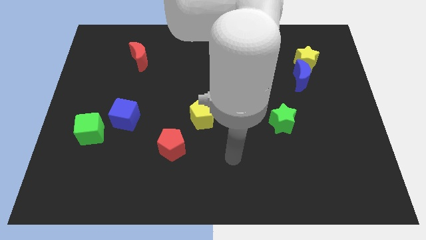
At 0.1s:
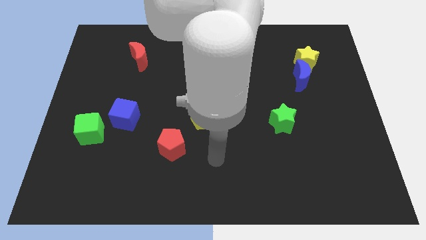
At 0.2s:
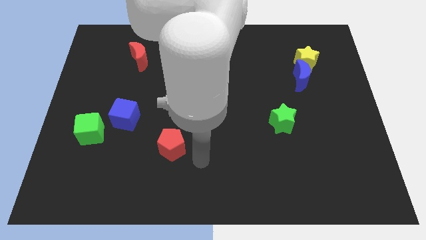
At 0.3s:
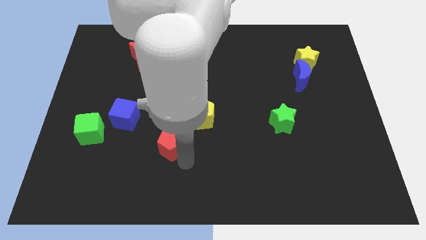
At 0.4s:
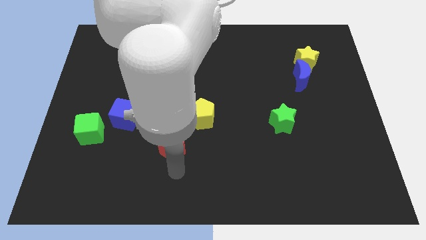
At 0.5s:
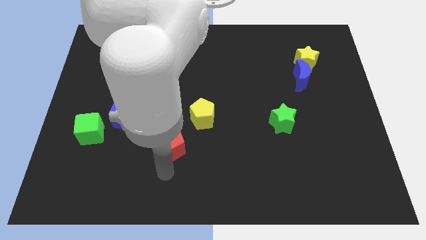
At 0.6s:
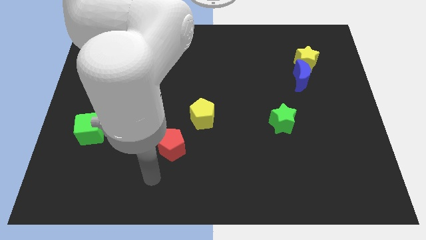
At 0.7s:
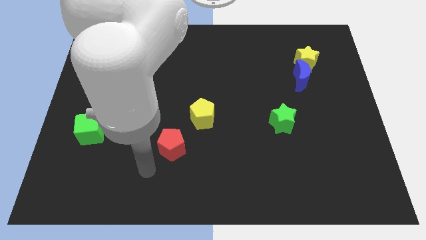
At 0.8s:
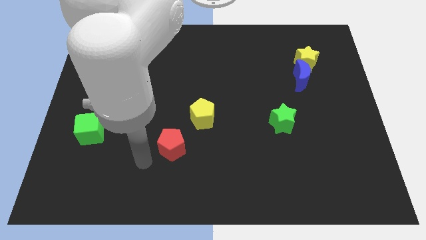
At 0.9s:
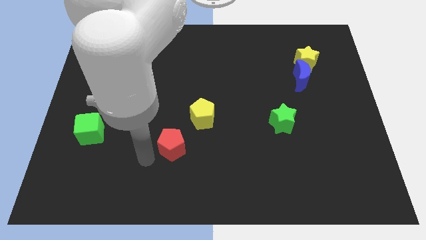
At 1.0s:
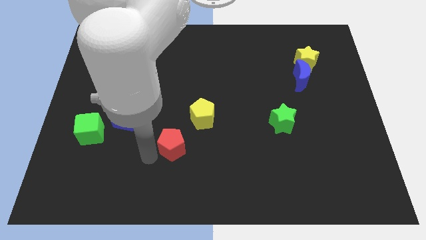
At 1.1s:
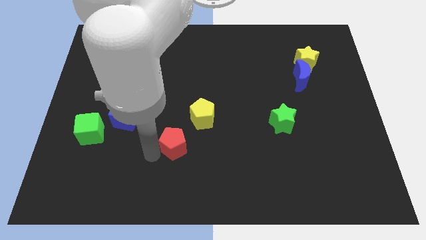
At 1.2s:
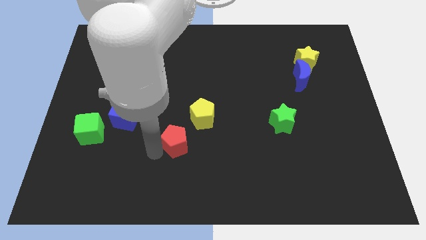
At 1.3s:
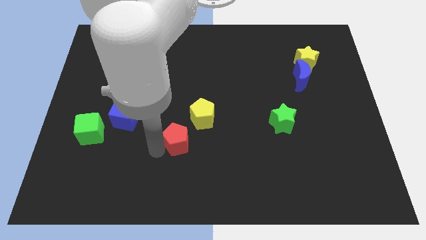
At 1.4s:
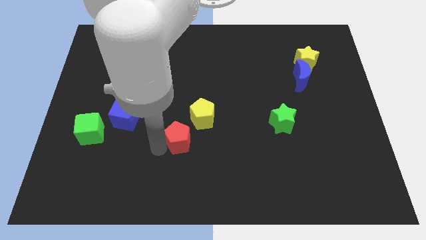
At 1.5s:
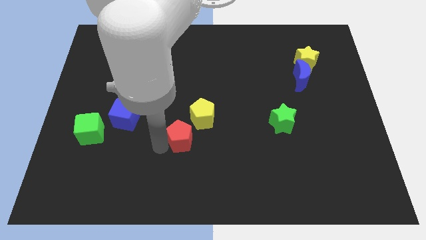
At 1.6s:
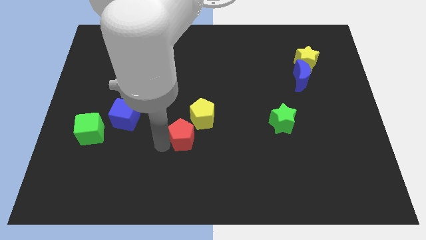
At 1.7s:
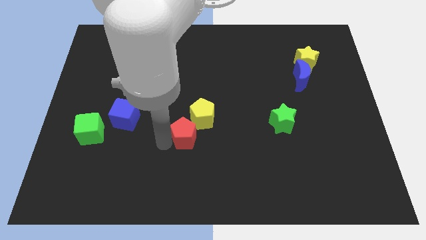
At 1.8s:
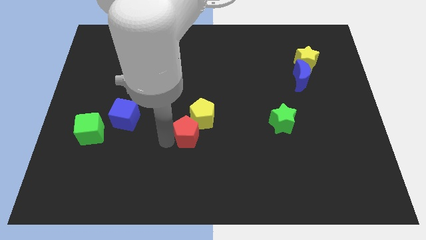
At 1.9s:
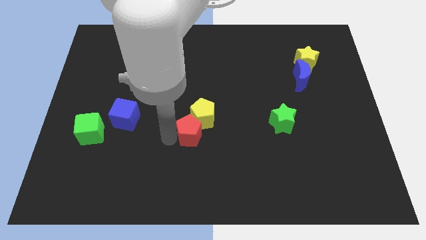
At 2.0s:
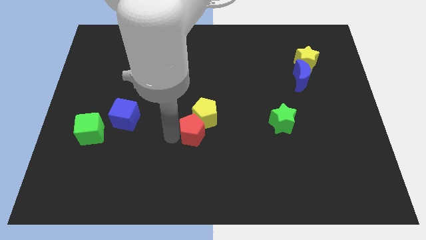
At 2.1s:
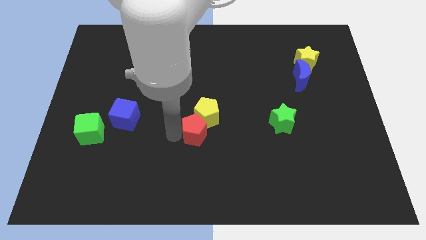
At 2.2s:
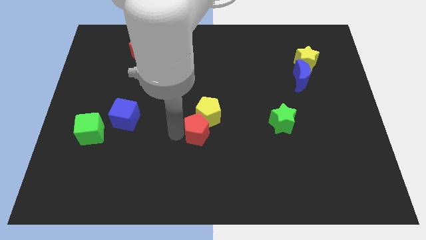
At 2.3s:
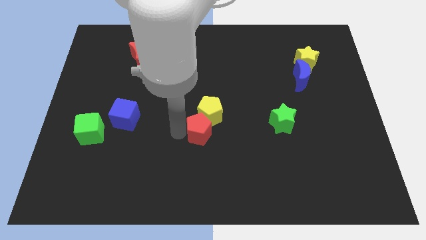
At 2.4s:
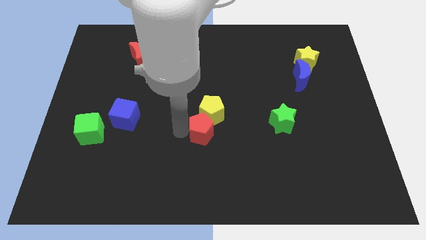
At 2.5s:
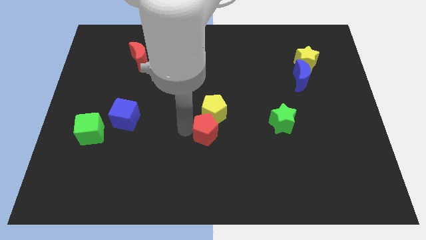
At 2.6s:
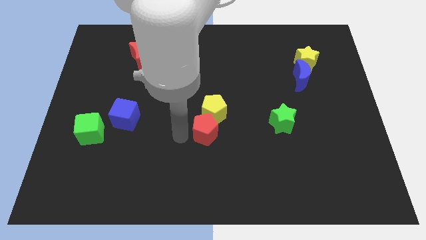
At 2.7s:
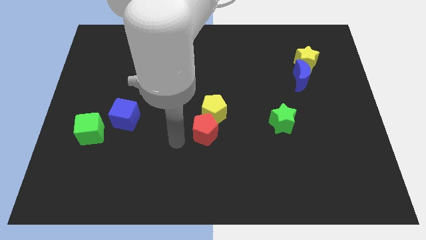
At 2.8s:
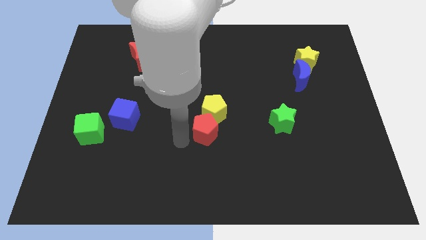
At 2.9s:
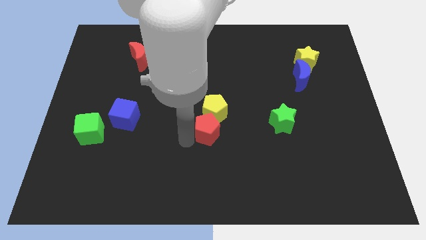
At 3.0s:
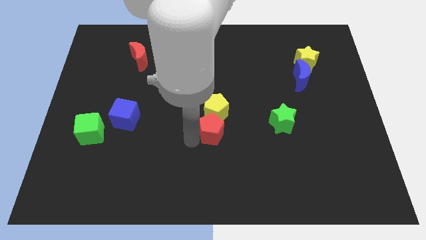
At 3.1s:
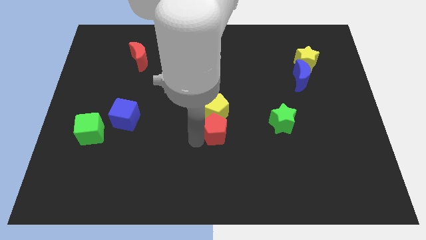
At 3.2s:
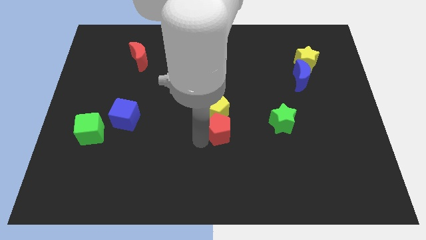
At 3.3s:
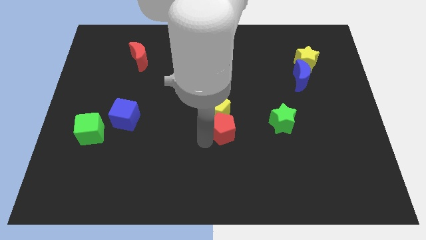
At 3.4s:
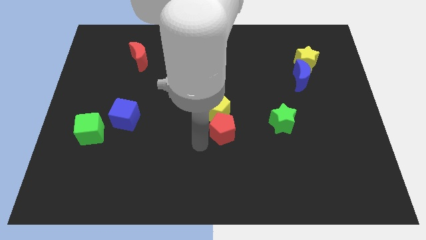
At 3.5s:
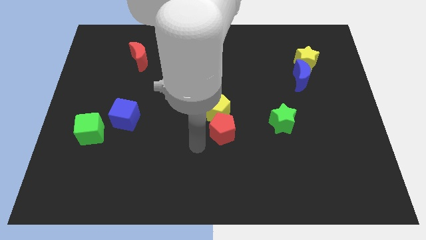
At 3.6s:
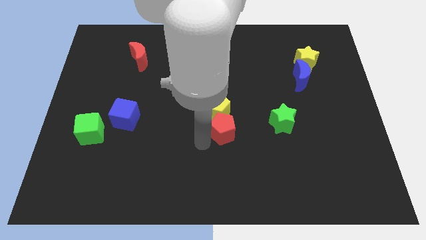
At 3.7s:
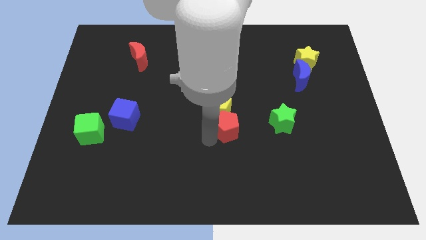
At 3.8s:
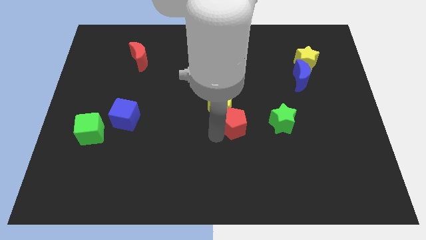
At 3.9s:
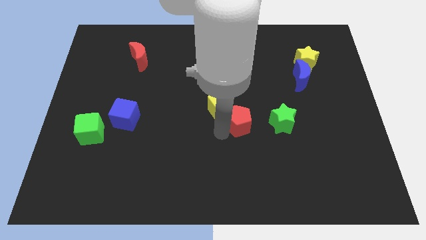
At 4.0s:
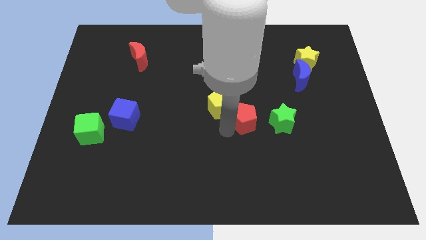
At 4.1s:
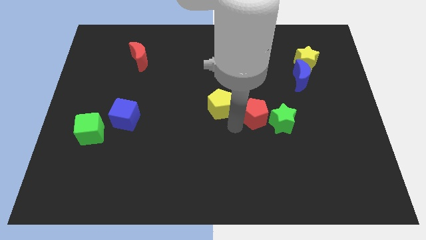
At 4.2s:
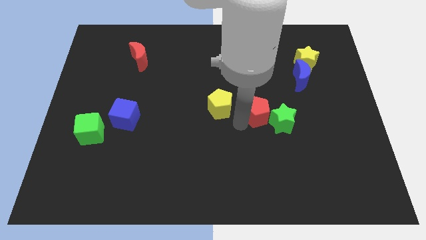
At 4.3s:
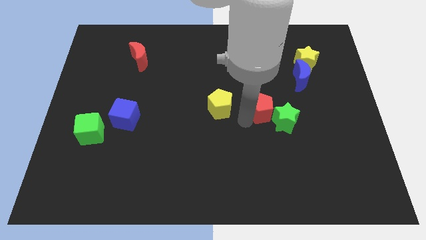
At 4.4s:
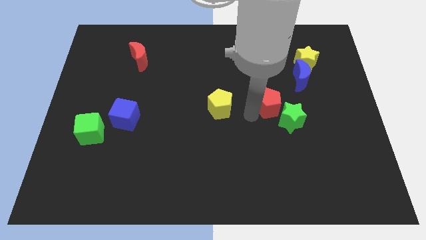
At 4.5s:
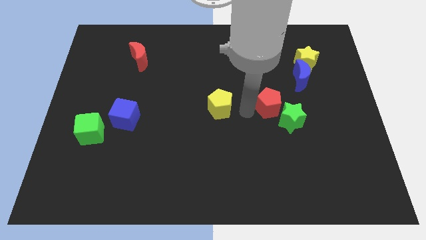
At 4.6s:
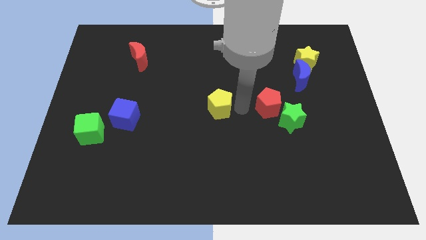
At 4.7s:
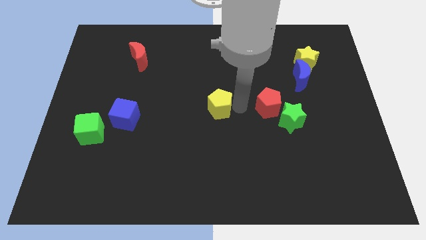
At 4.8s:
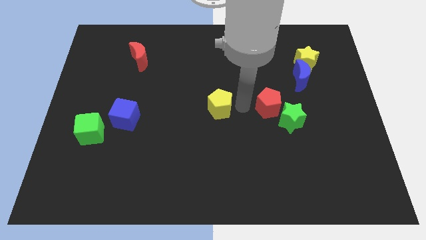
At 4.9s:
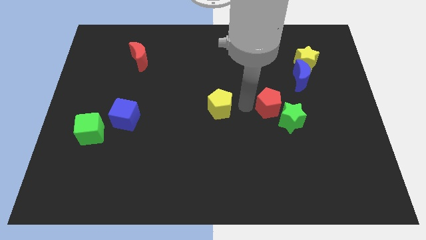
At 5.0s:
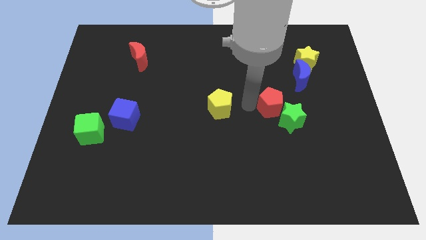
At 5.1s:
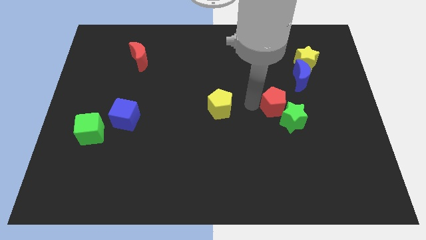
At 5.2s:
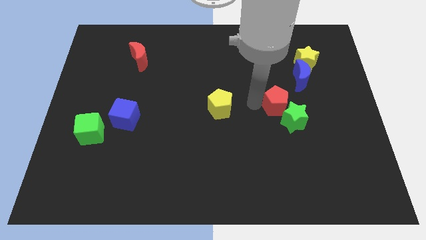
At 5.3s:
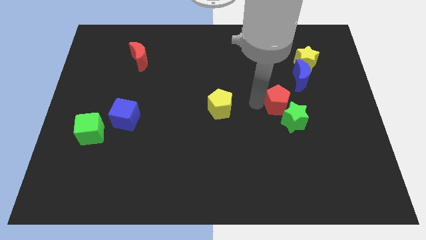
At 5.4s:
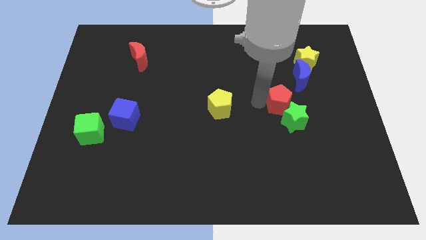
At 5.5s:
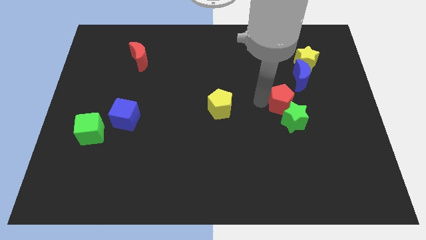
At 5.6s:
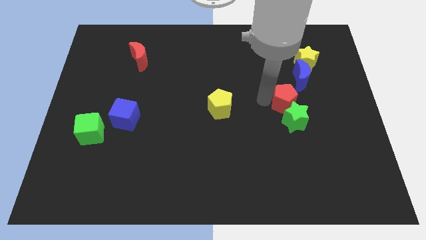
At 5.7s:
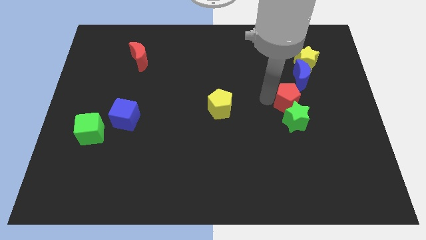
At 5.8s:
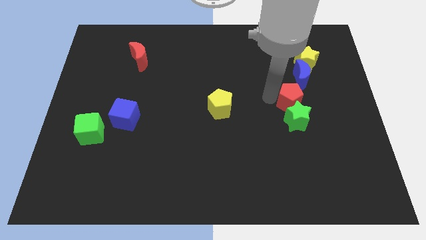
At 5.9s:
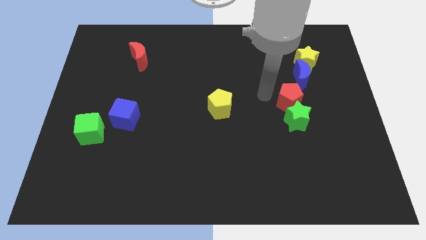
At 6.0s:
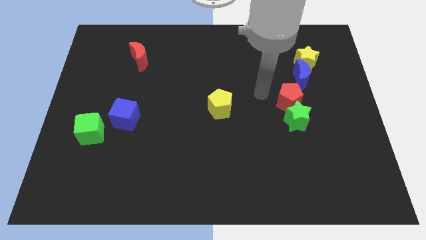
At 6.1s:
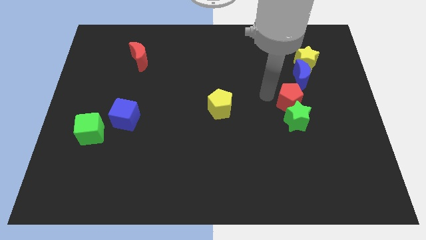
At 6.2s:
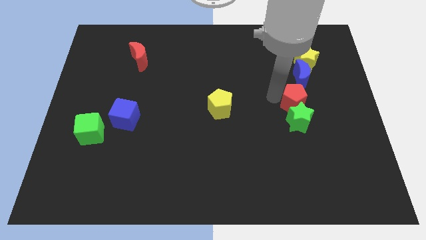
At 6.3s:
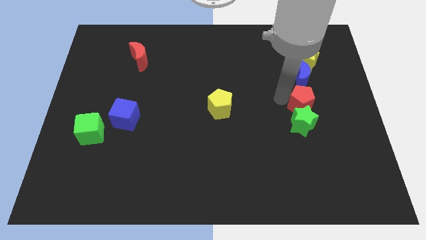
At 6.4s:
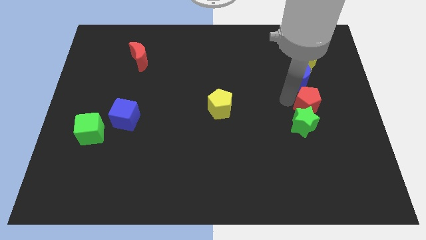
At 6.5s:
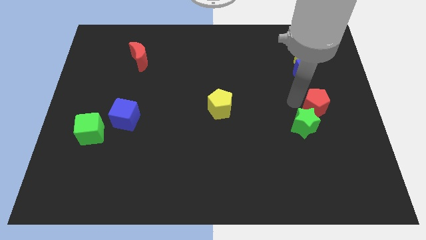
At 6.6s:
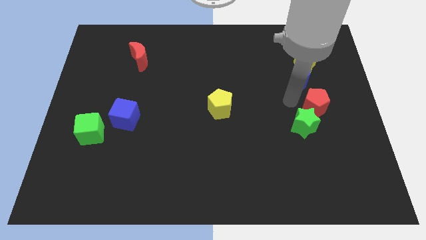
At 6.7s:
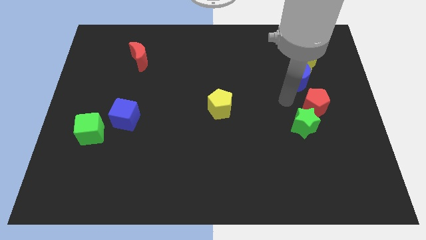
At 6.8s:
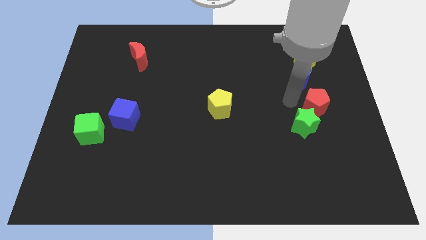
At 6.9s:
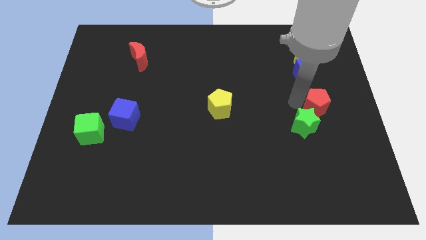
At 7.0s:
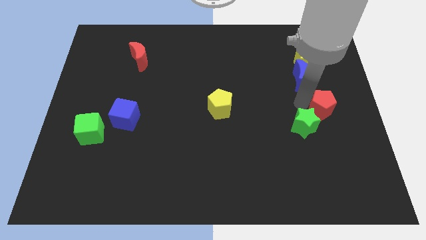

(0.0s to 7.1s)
move the red pentagon to the right side

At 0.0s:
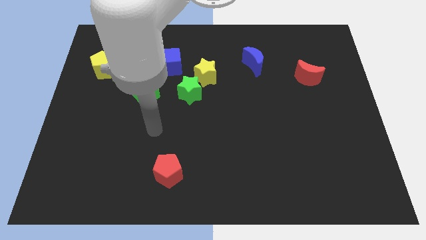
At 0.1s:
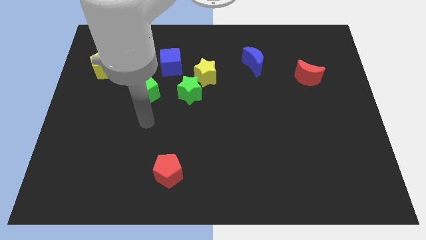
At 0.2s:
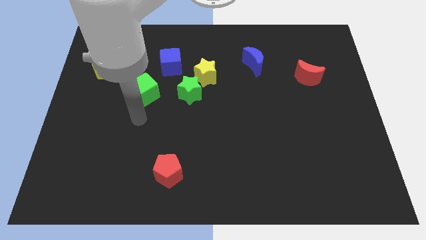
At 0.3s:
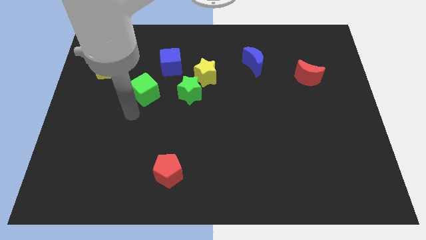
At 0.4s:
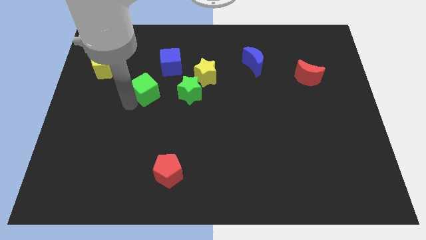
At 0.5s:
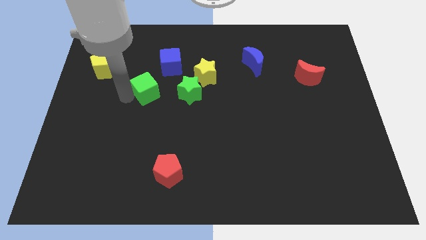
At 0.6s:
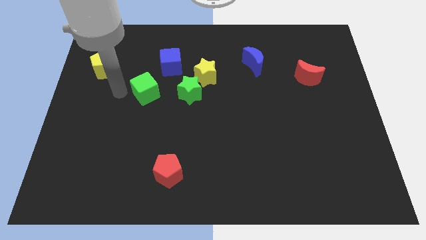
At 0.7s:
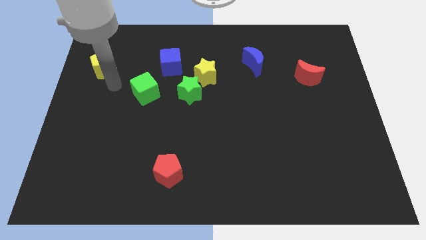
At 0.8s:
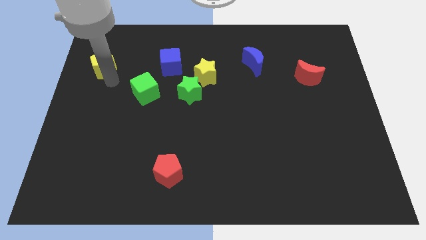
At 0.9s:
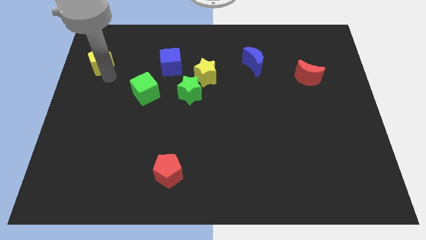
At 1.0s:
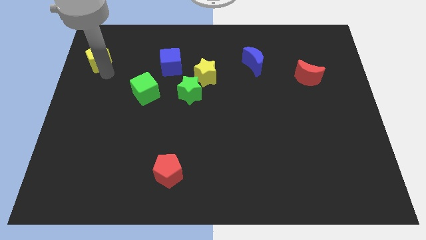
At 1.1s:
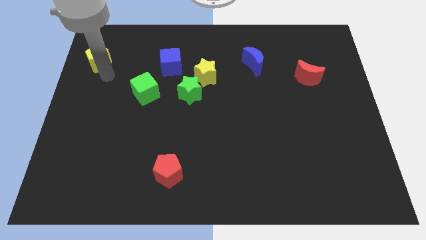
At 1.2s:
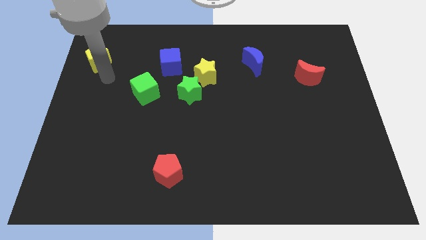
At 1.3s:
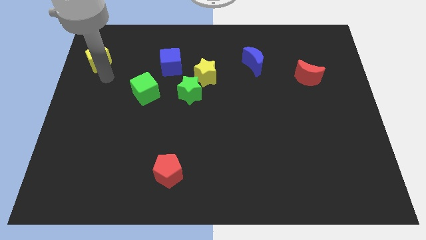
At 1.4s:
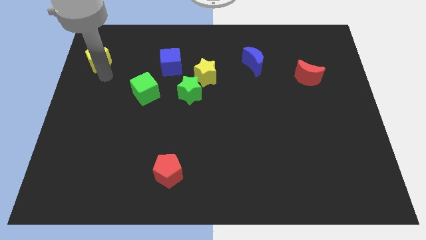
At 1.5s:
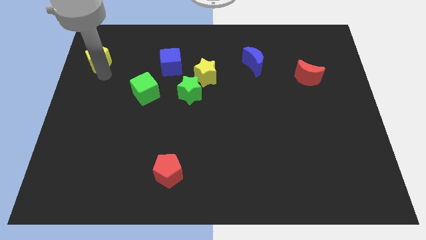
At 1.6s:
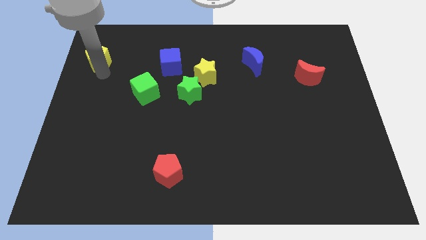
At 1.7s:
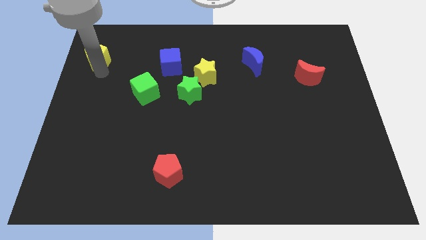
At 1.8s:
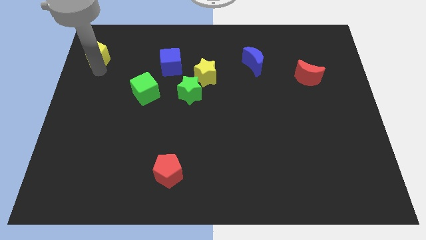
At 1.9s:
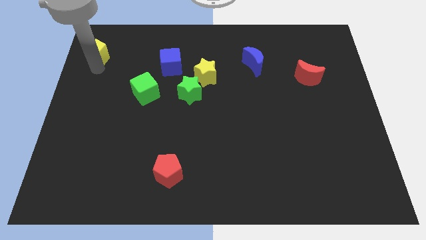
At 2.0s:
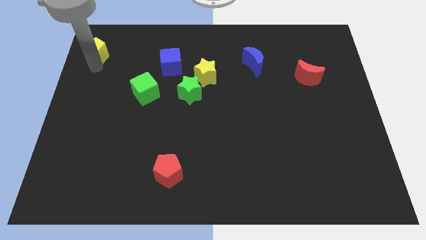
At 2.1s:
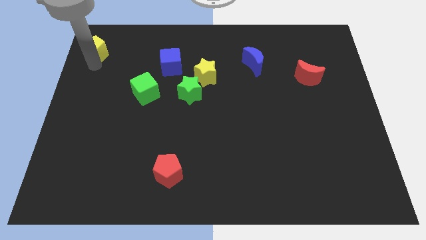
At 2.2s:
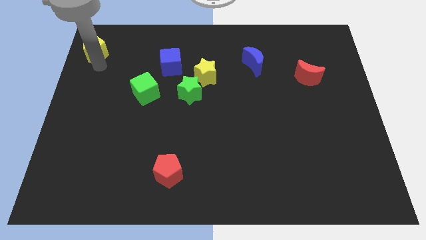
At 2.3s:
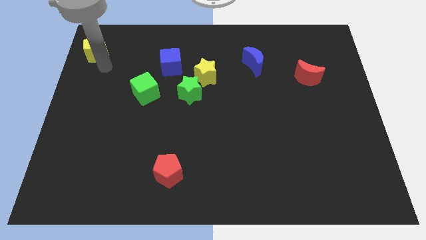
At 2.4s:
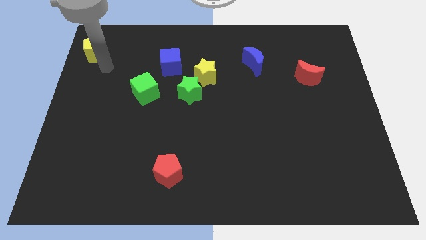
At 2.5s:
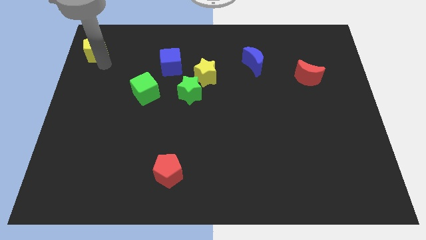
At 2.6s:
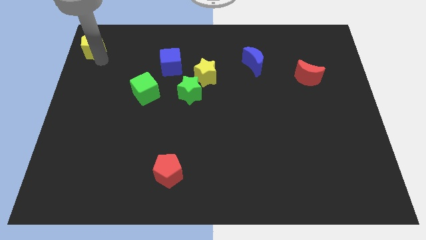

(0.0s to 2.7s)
slide the yellow pentagon to the top left corner
